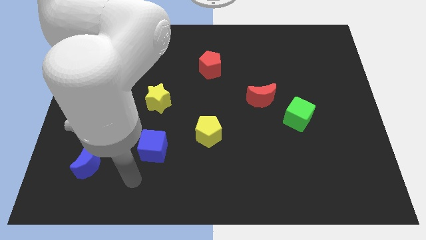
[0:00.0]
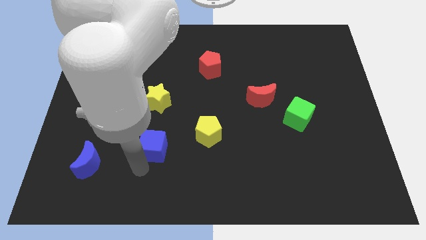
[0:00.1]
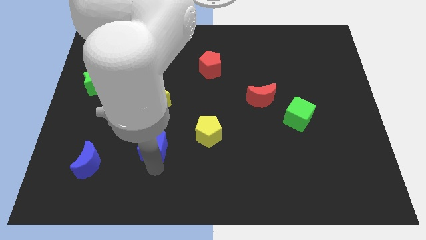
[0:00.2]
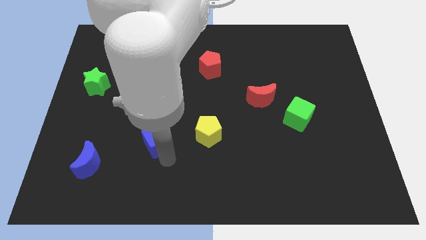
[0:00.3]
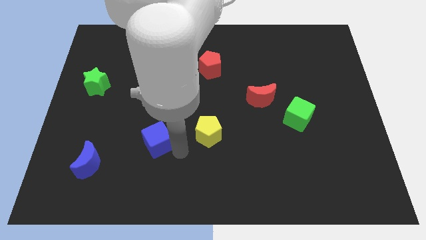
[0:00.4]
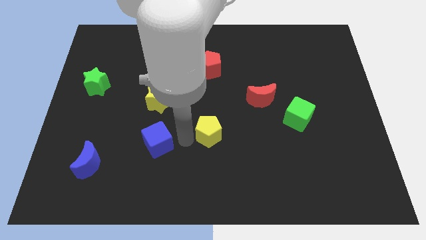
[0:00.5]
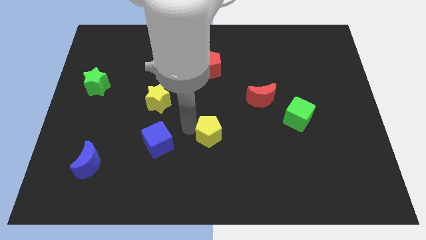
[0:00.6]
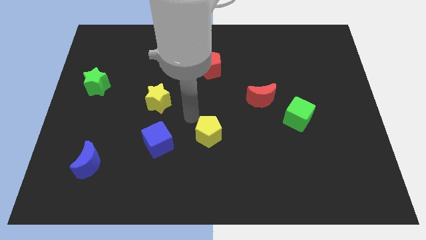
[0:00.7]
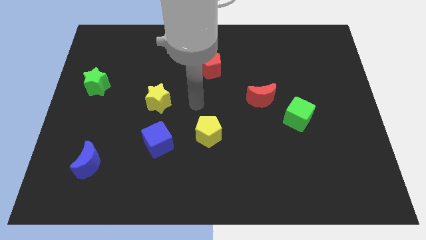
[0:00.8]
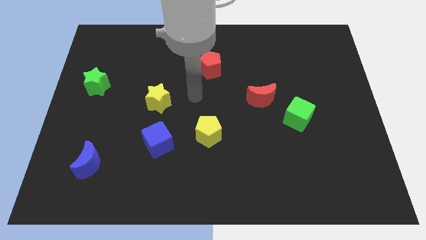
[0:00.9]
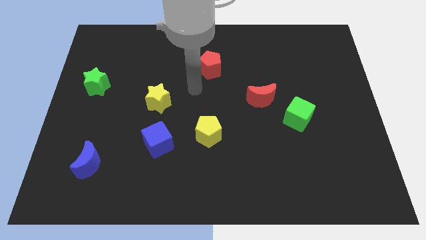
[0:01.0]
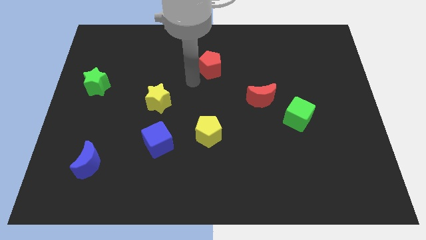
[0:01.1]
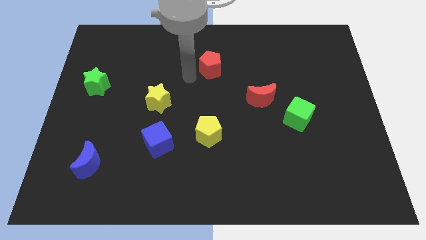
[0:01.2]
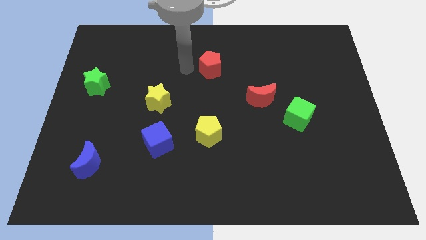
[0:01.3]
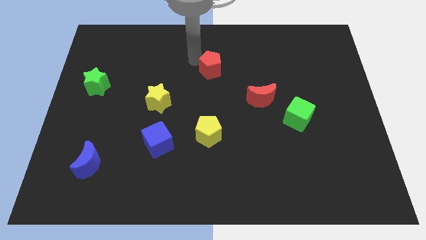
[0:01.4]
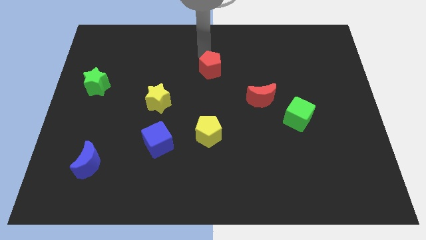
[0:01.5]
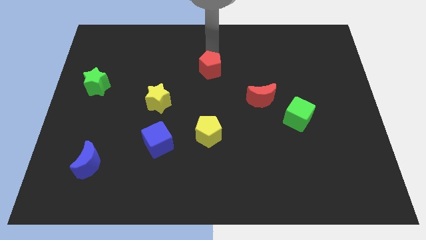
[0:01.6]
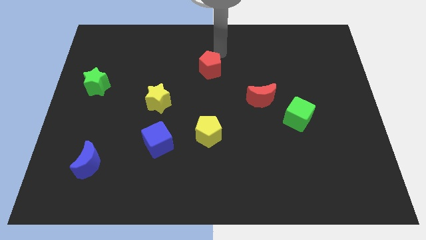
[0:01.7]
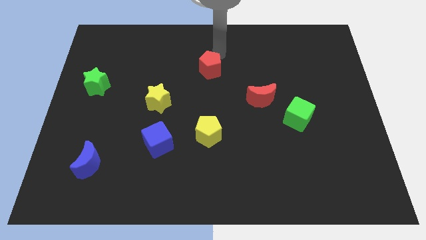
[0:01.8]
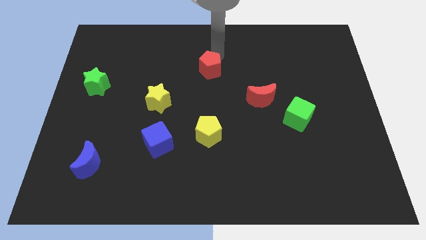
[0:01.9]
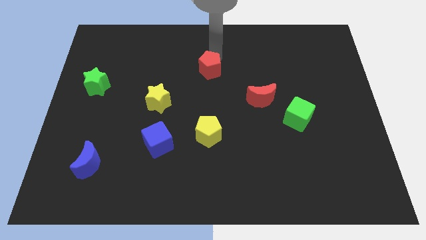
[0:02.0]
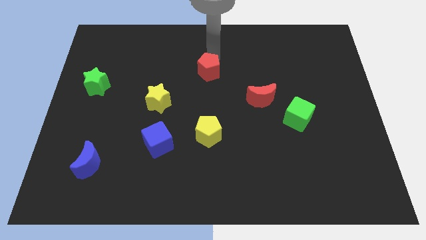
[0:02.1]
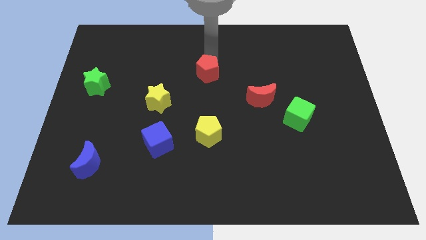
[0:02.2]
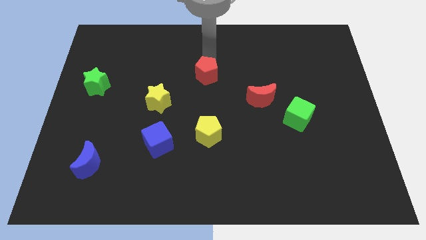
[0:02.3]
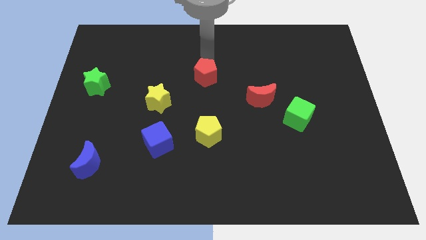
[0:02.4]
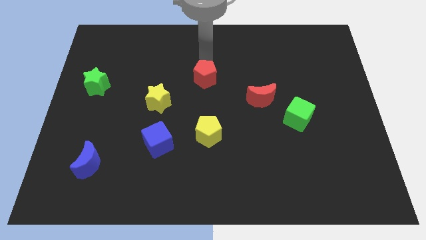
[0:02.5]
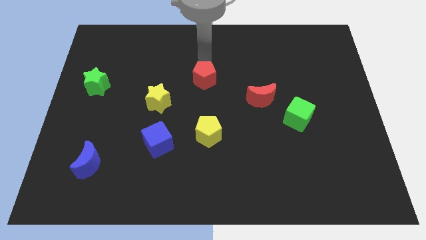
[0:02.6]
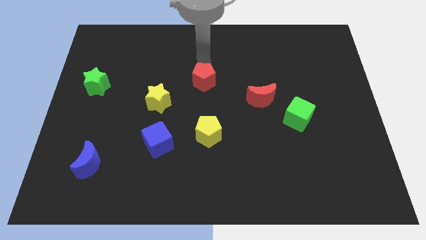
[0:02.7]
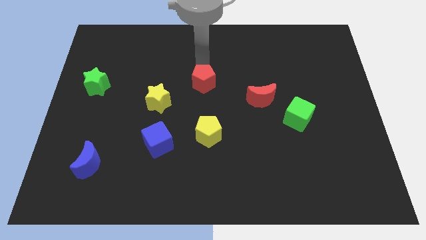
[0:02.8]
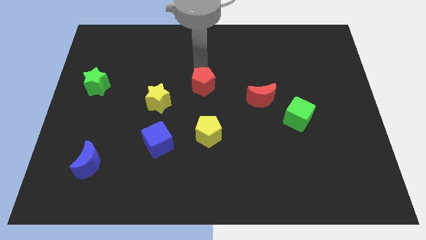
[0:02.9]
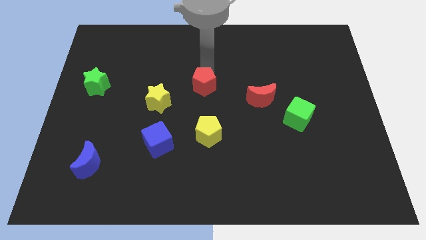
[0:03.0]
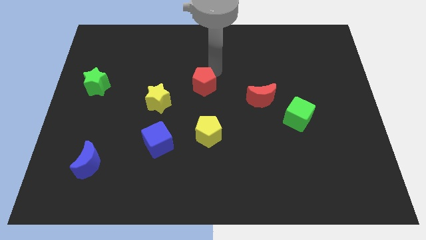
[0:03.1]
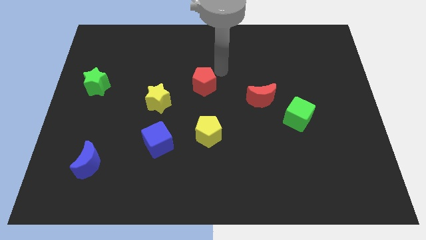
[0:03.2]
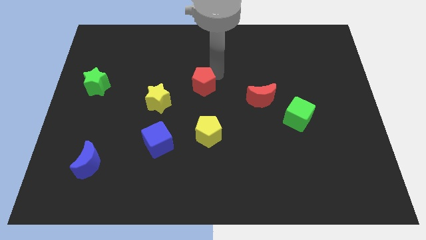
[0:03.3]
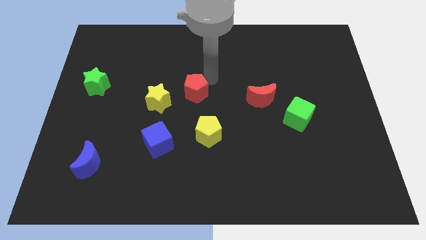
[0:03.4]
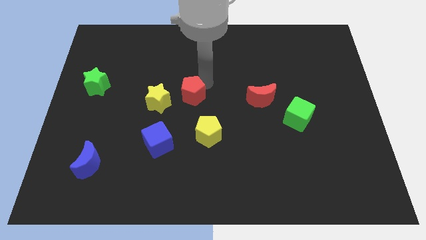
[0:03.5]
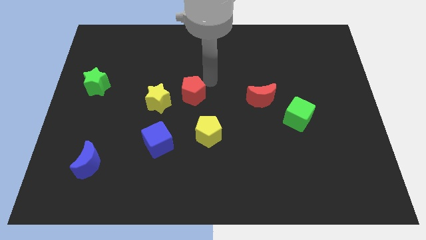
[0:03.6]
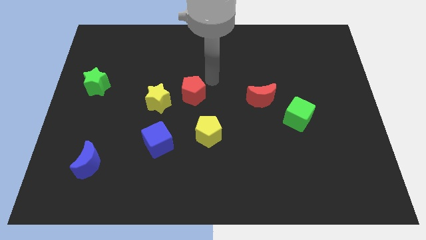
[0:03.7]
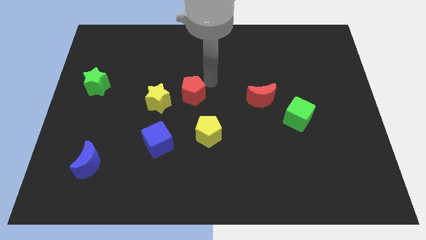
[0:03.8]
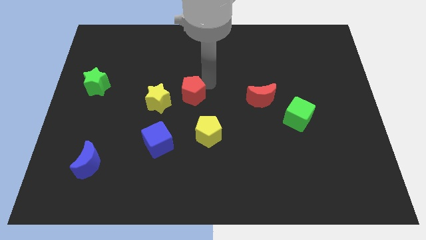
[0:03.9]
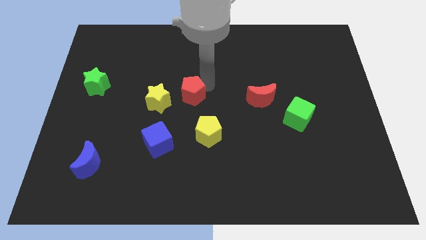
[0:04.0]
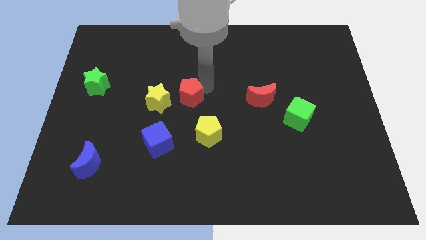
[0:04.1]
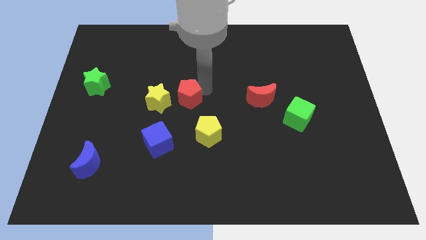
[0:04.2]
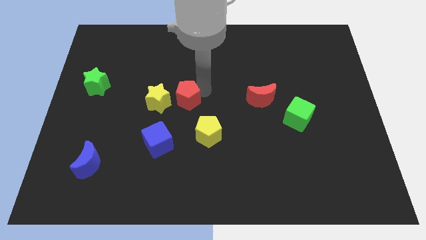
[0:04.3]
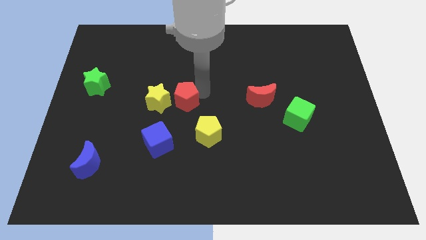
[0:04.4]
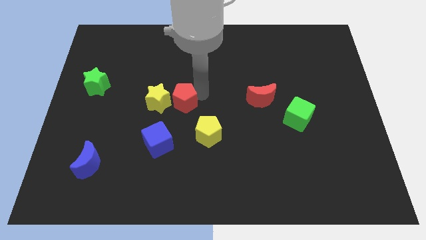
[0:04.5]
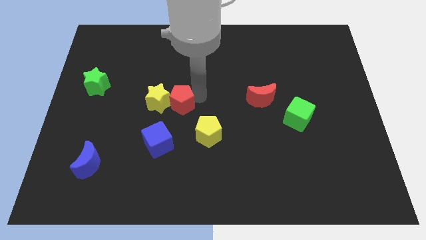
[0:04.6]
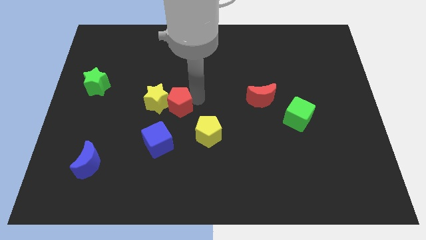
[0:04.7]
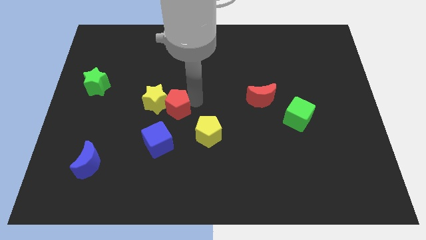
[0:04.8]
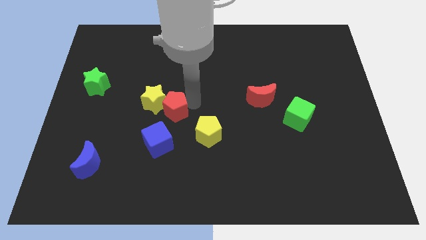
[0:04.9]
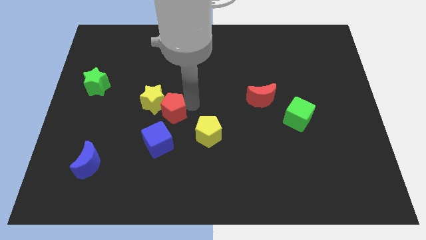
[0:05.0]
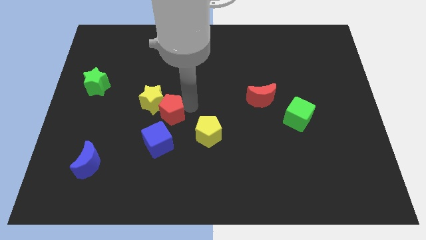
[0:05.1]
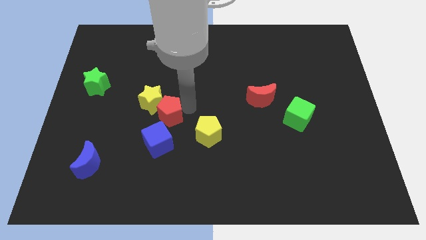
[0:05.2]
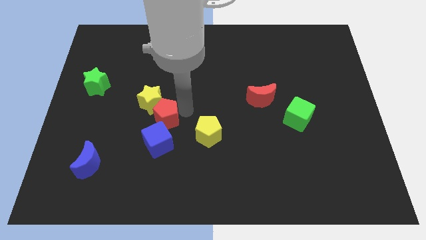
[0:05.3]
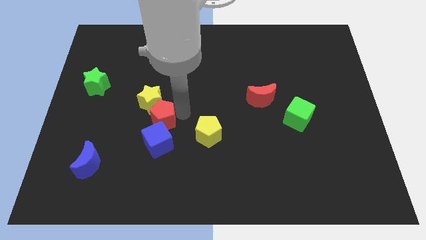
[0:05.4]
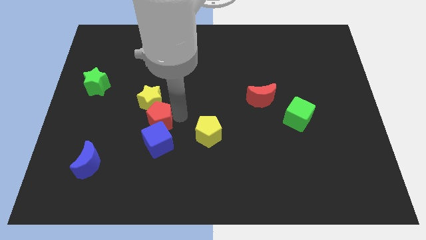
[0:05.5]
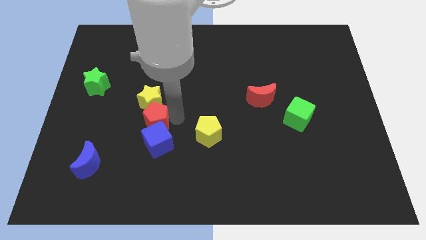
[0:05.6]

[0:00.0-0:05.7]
move the red pentagon down and to the left diagonally

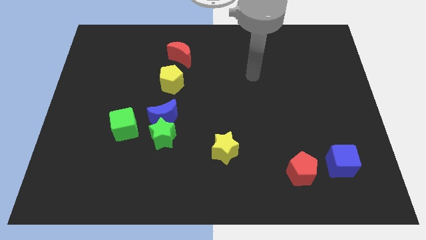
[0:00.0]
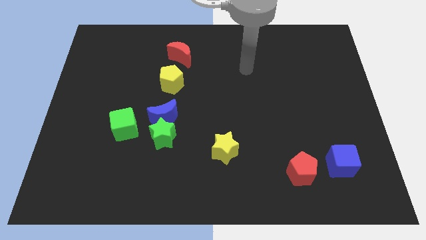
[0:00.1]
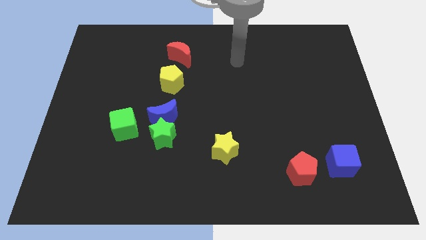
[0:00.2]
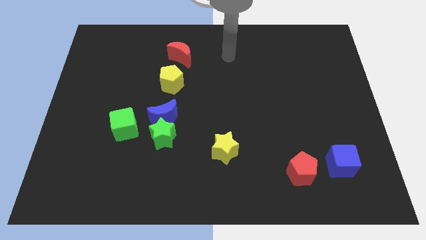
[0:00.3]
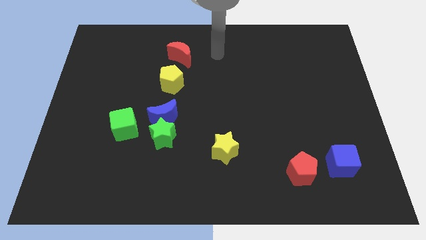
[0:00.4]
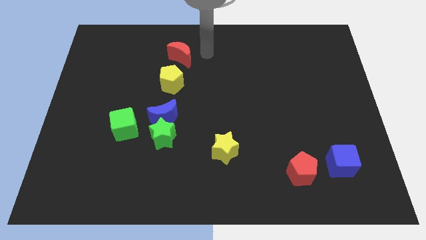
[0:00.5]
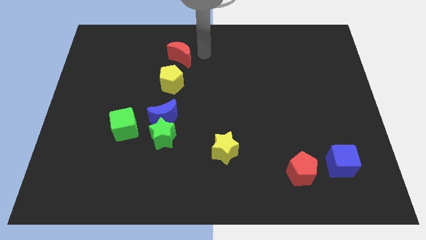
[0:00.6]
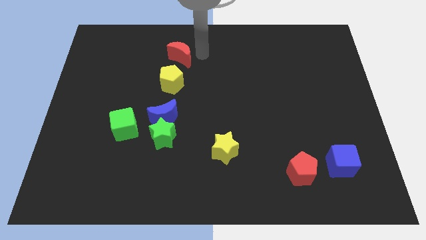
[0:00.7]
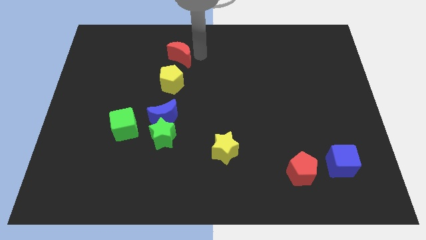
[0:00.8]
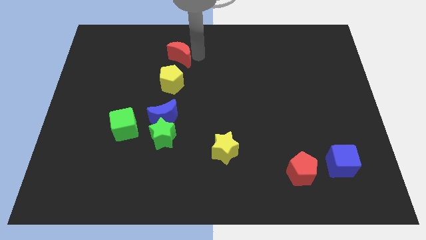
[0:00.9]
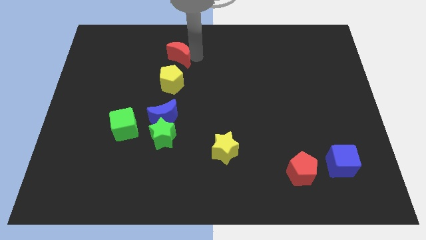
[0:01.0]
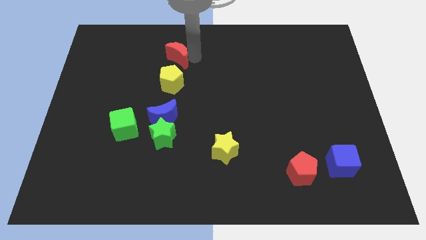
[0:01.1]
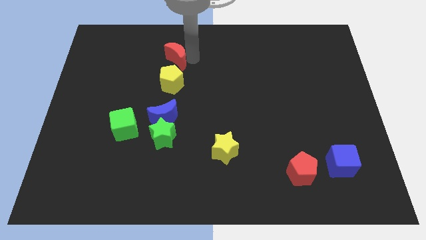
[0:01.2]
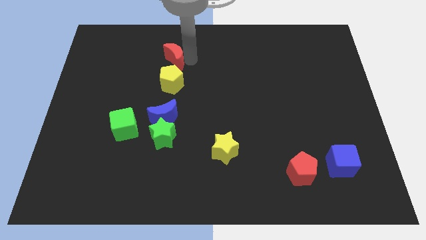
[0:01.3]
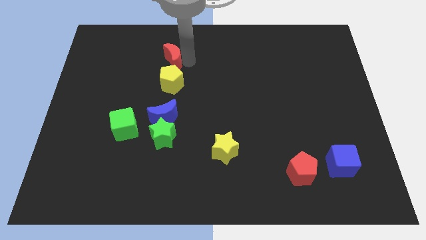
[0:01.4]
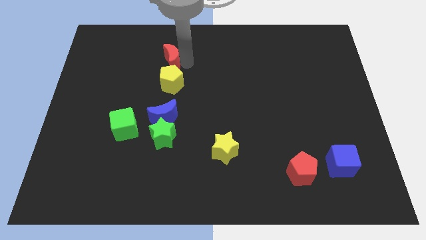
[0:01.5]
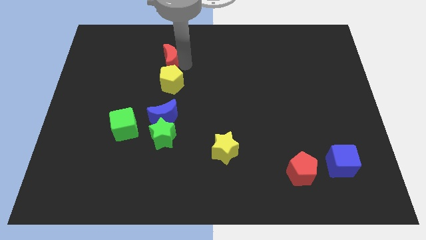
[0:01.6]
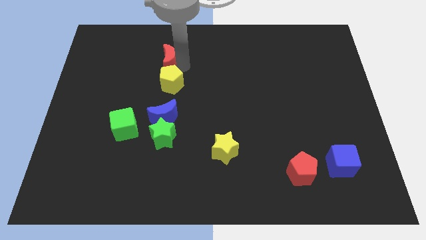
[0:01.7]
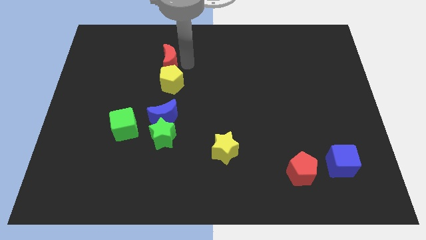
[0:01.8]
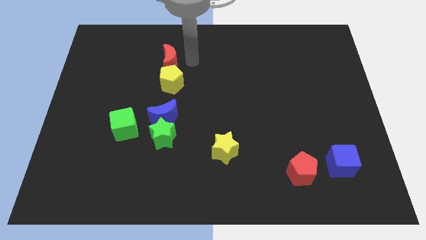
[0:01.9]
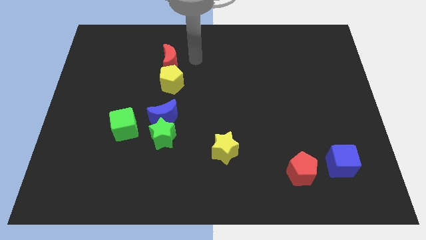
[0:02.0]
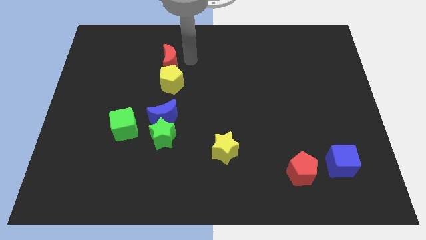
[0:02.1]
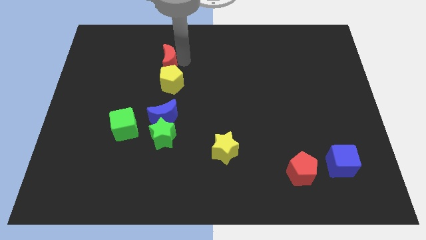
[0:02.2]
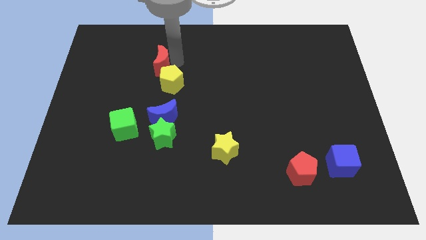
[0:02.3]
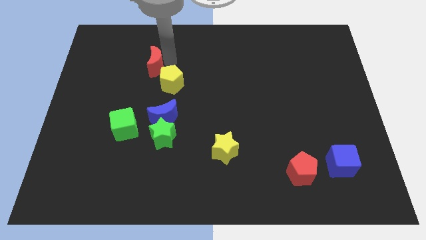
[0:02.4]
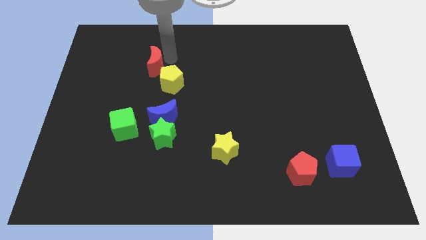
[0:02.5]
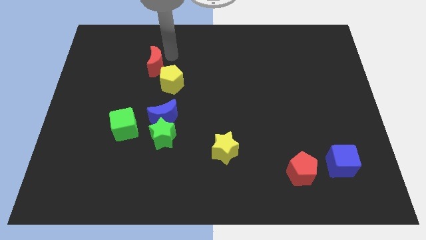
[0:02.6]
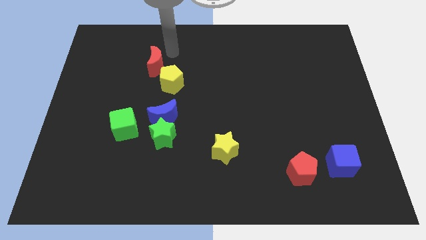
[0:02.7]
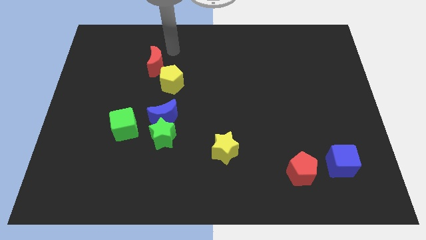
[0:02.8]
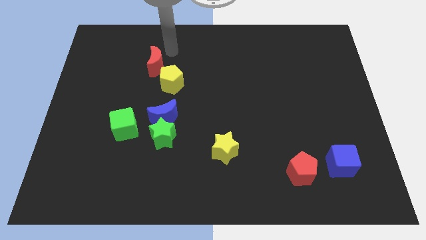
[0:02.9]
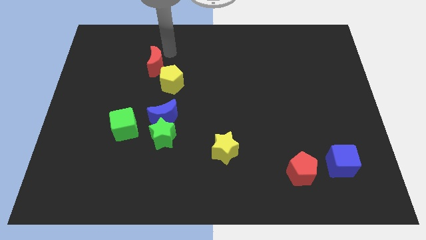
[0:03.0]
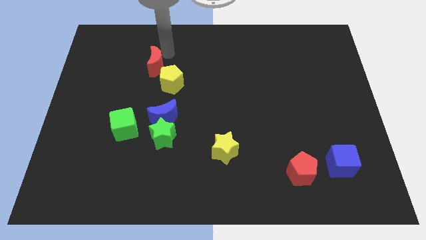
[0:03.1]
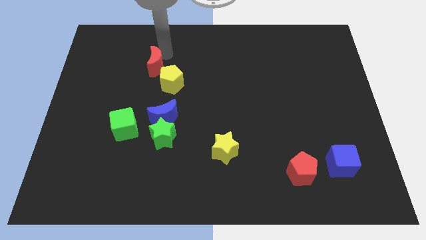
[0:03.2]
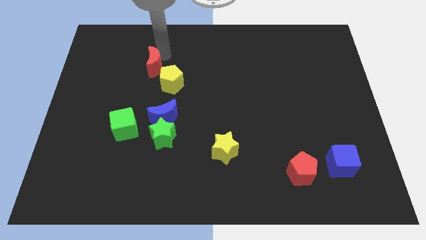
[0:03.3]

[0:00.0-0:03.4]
push the red moon downwards and left a little bit
